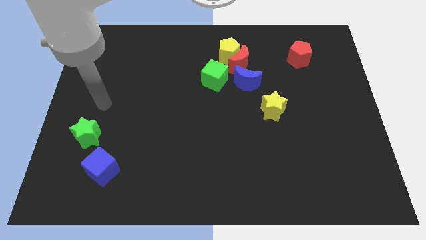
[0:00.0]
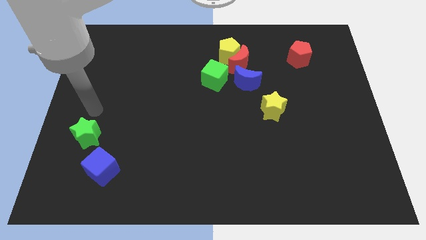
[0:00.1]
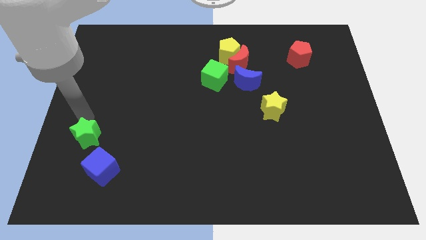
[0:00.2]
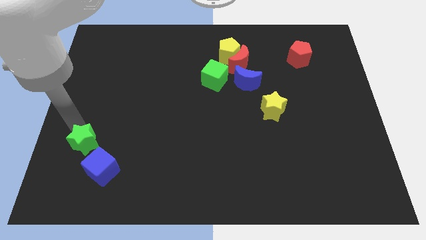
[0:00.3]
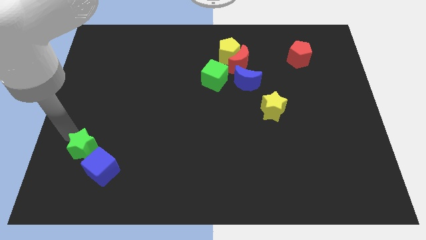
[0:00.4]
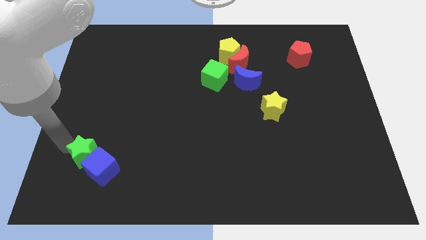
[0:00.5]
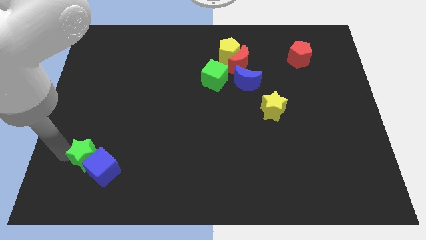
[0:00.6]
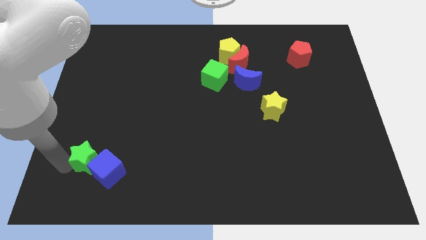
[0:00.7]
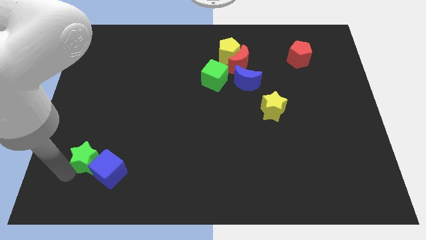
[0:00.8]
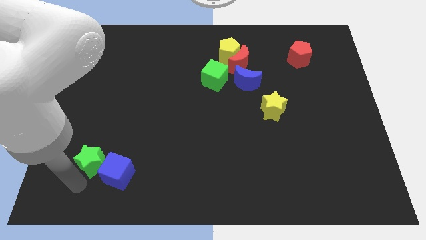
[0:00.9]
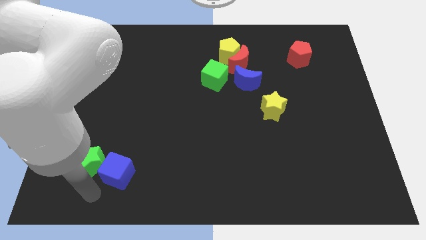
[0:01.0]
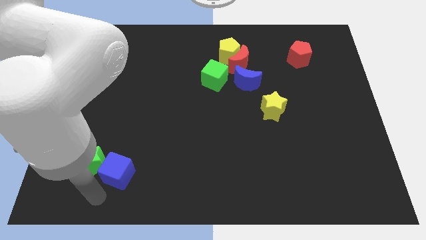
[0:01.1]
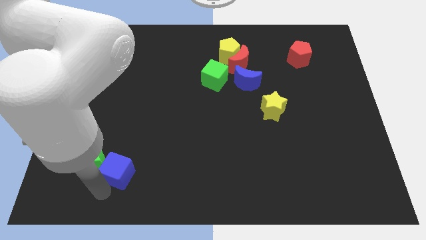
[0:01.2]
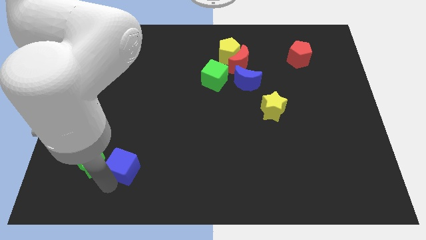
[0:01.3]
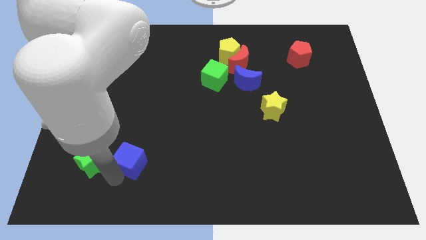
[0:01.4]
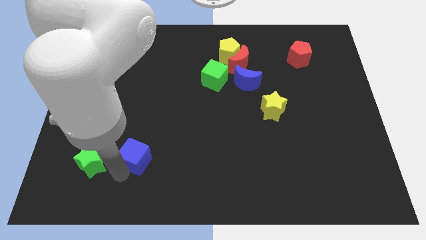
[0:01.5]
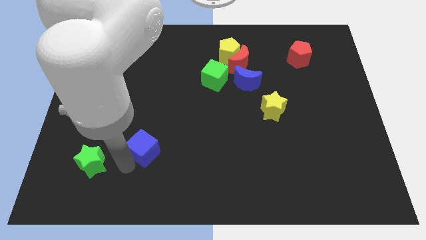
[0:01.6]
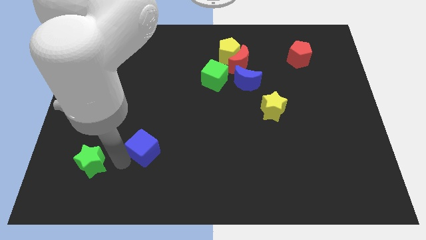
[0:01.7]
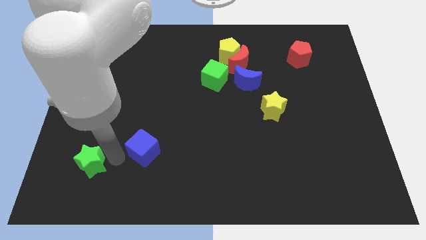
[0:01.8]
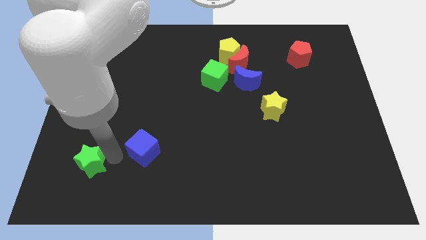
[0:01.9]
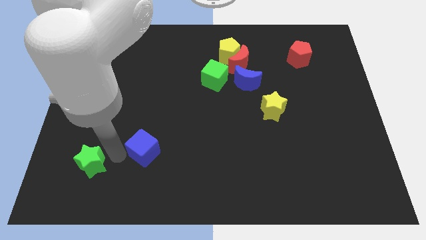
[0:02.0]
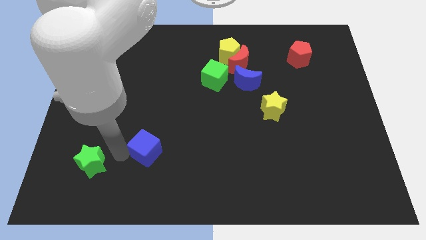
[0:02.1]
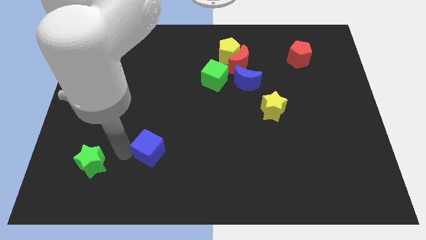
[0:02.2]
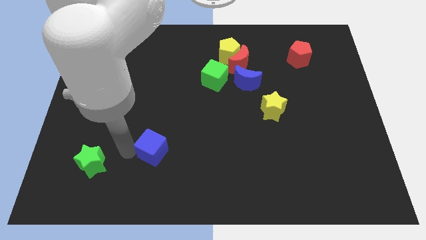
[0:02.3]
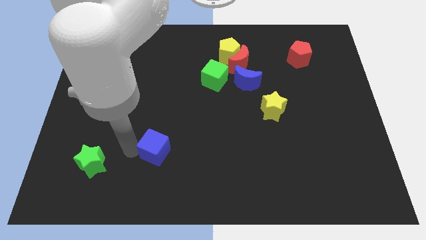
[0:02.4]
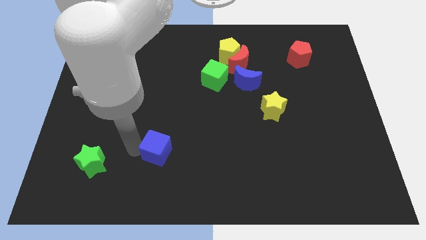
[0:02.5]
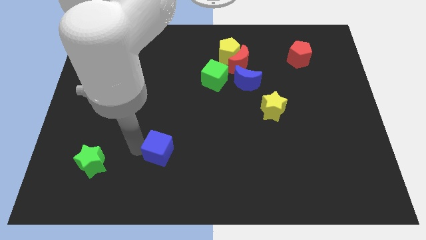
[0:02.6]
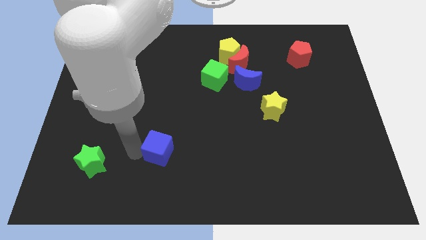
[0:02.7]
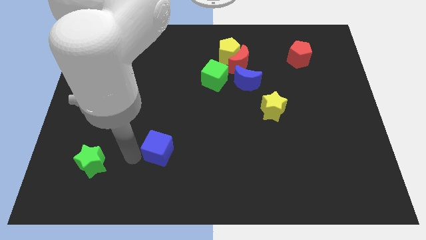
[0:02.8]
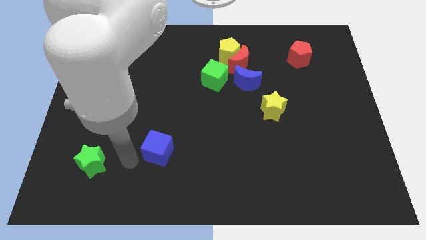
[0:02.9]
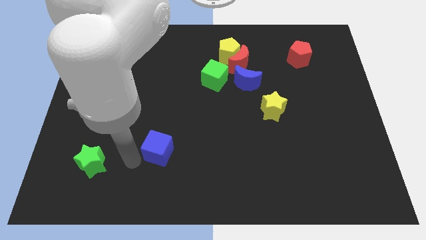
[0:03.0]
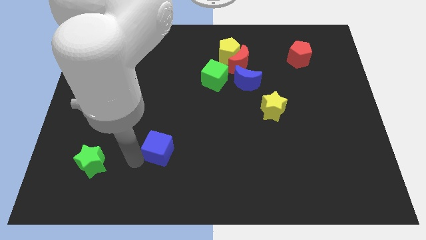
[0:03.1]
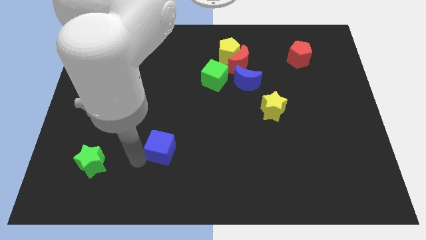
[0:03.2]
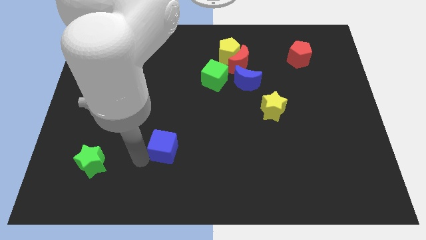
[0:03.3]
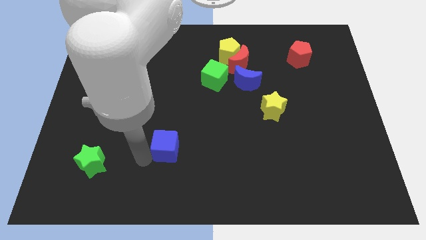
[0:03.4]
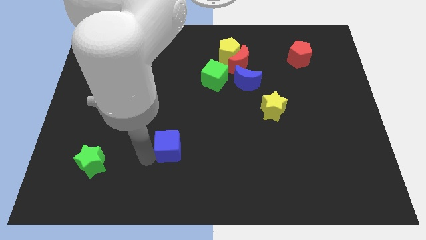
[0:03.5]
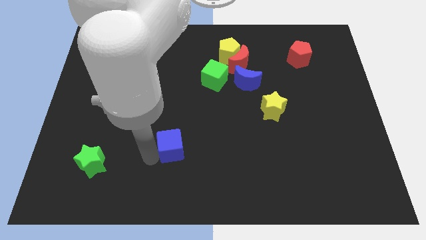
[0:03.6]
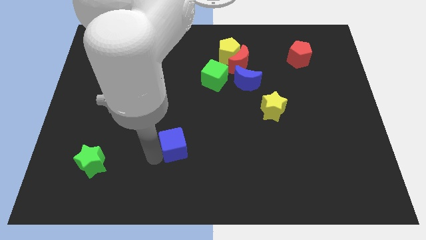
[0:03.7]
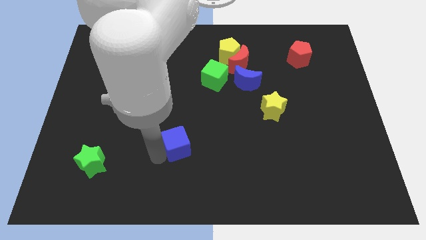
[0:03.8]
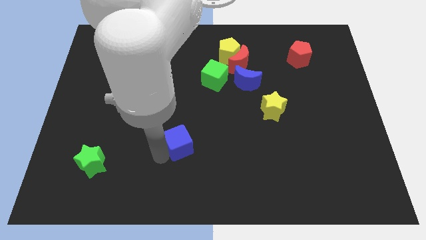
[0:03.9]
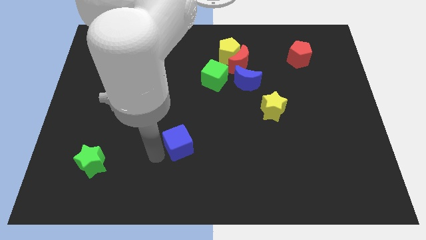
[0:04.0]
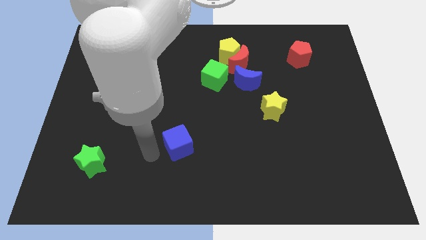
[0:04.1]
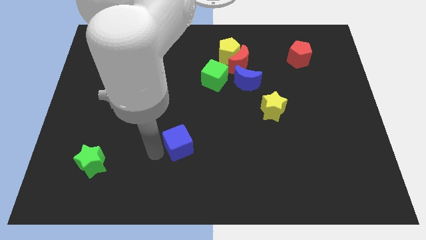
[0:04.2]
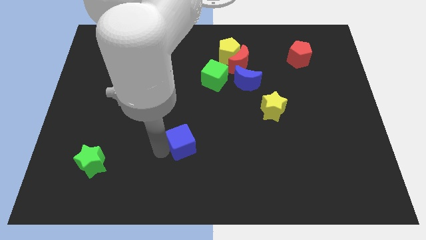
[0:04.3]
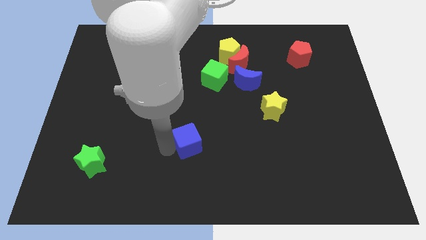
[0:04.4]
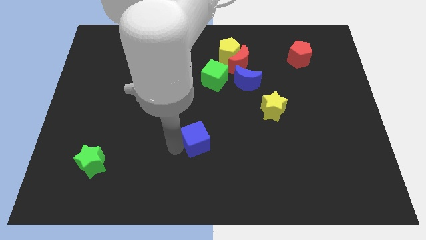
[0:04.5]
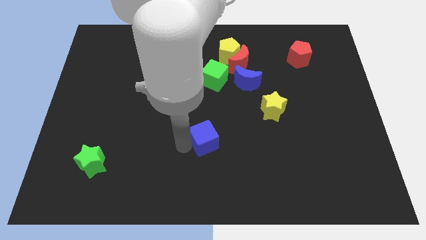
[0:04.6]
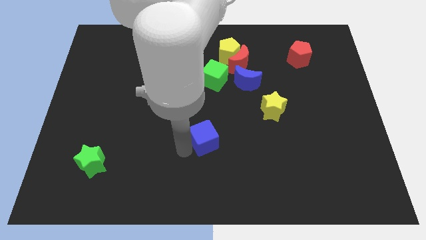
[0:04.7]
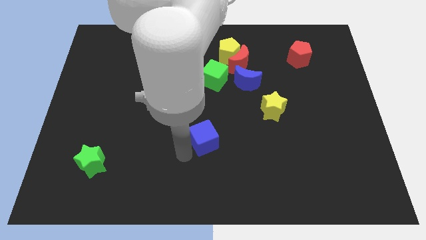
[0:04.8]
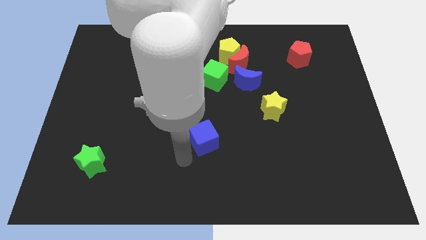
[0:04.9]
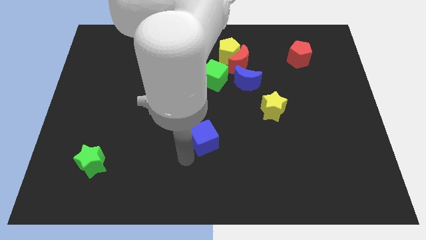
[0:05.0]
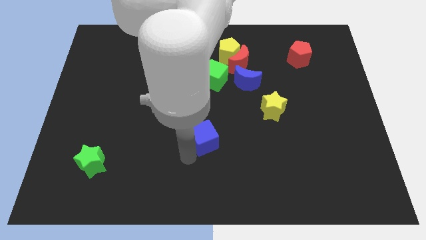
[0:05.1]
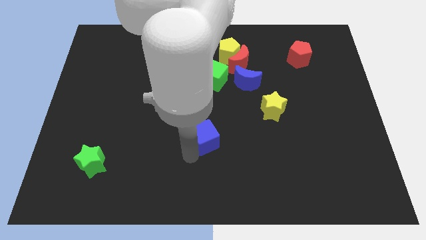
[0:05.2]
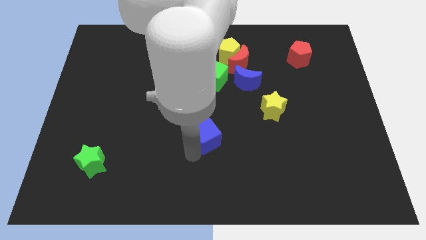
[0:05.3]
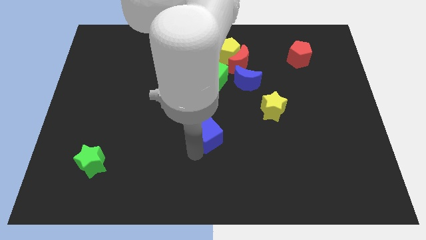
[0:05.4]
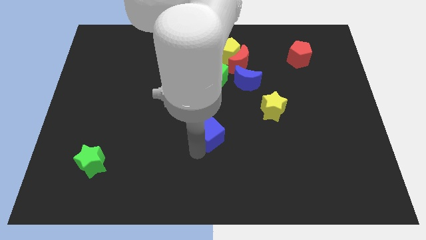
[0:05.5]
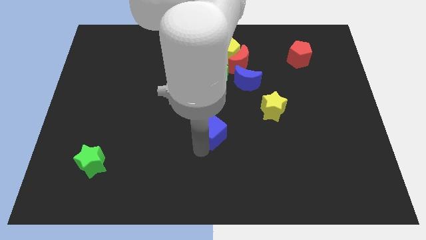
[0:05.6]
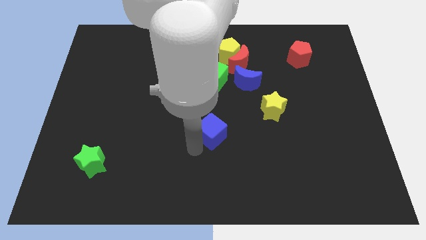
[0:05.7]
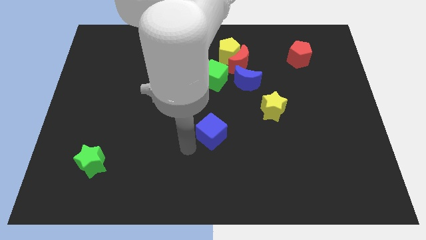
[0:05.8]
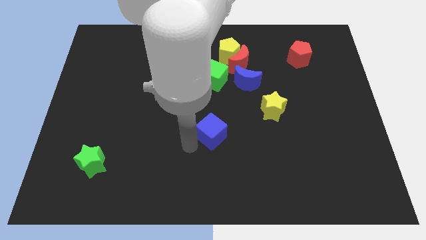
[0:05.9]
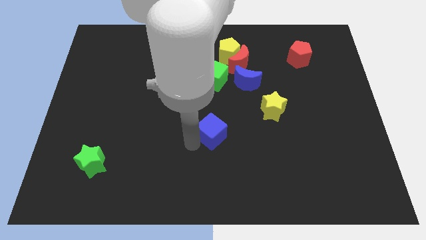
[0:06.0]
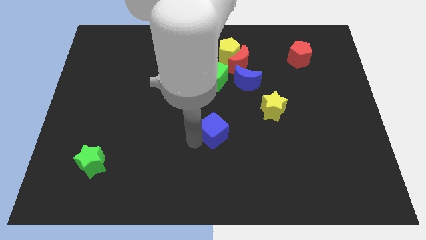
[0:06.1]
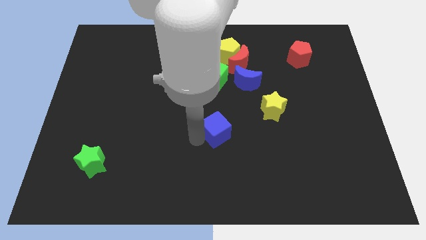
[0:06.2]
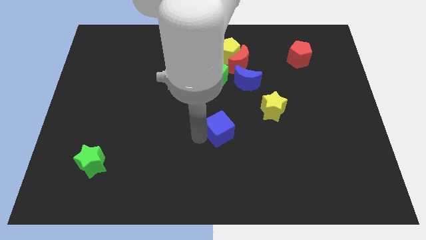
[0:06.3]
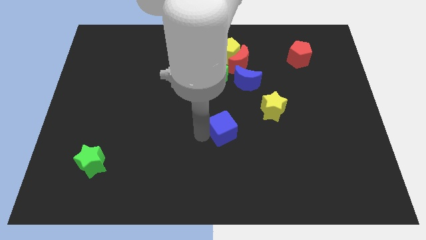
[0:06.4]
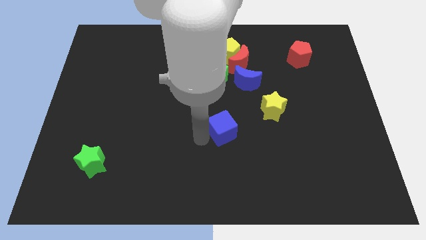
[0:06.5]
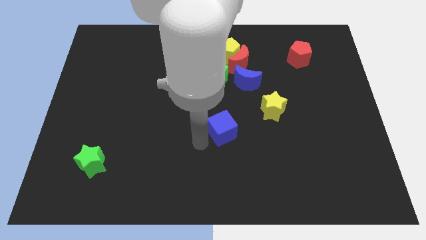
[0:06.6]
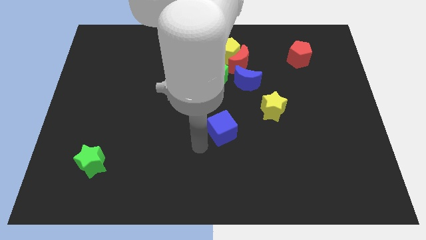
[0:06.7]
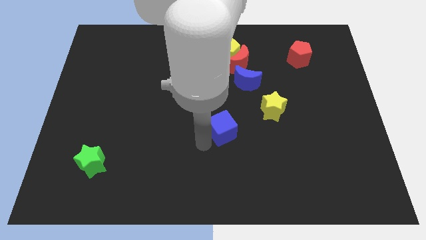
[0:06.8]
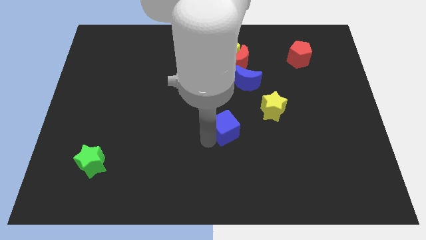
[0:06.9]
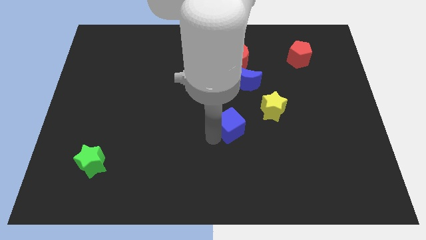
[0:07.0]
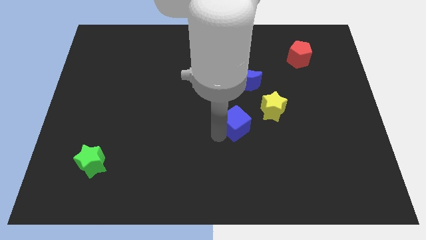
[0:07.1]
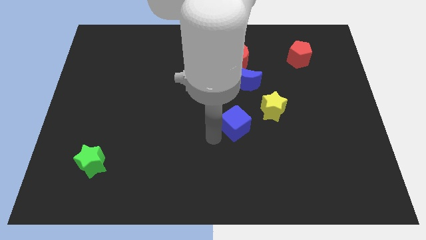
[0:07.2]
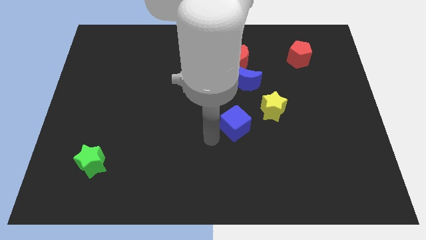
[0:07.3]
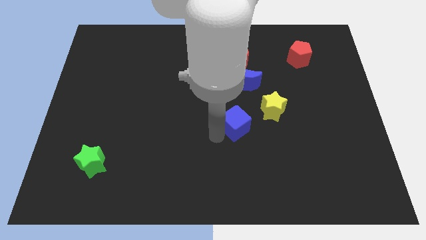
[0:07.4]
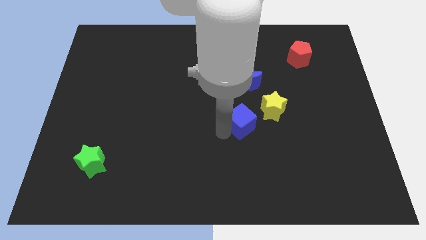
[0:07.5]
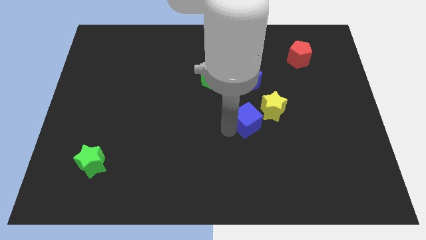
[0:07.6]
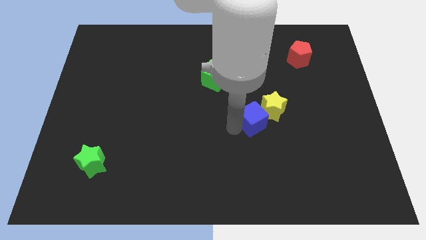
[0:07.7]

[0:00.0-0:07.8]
slide the blue cube next to the yellow star

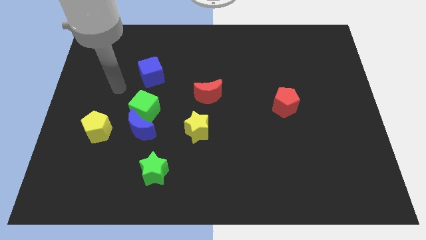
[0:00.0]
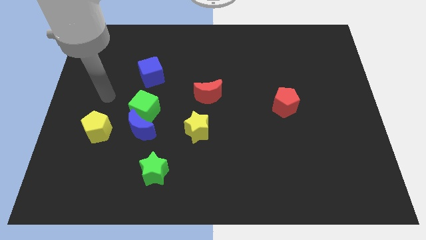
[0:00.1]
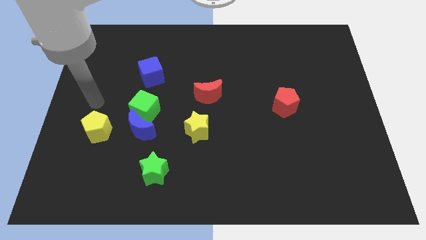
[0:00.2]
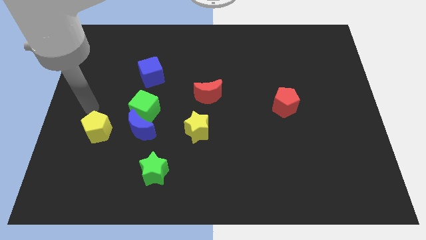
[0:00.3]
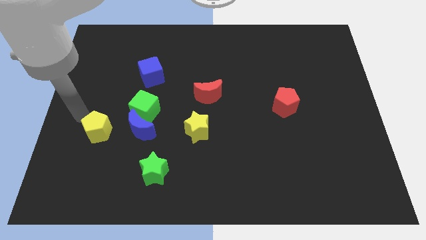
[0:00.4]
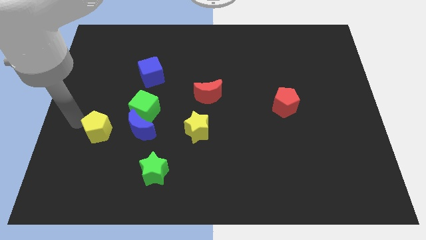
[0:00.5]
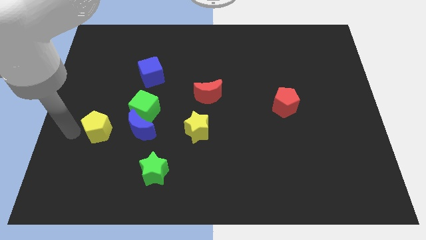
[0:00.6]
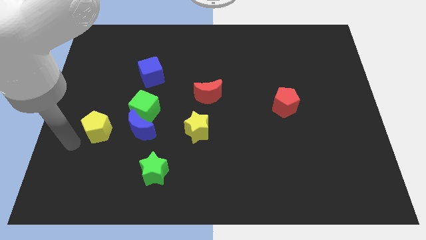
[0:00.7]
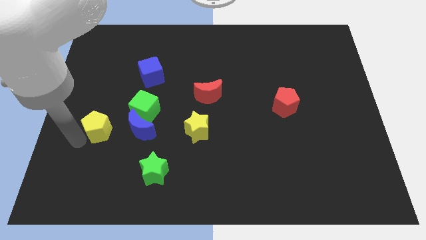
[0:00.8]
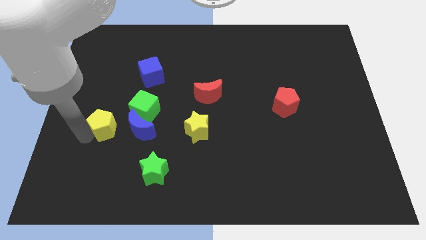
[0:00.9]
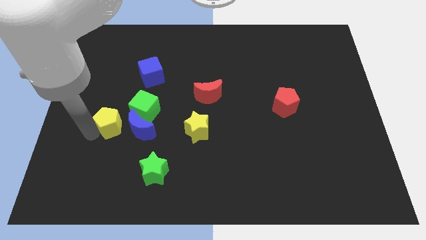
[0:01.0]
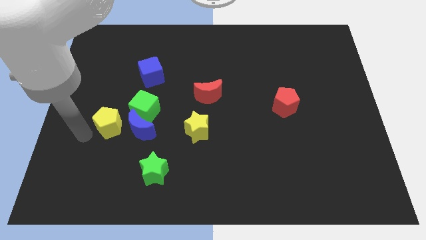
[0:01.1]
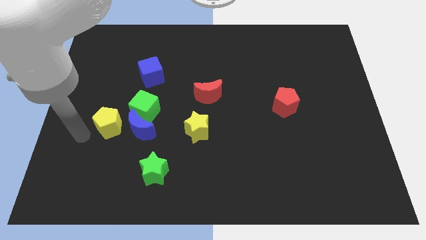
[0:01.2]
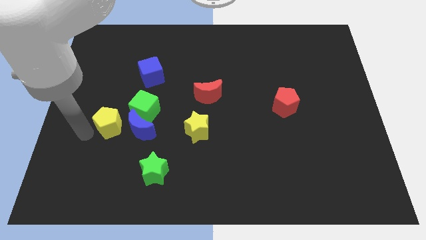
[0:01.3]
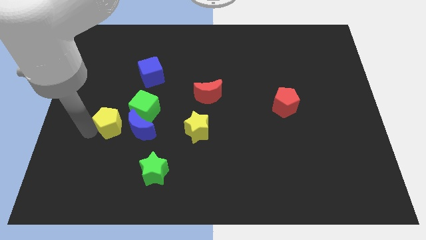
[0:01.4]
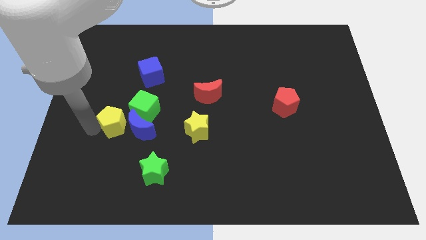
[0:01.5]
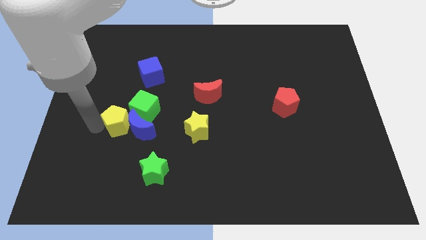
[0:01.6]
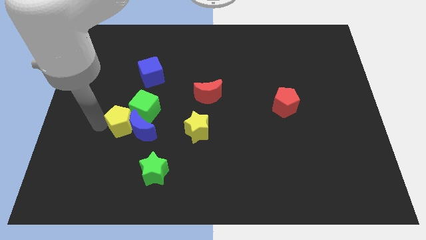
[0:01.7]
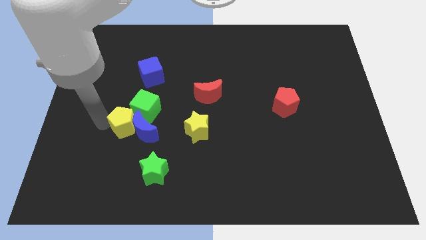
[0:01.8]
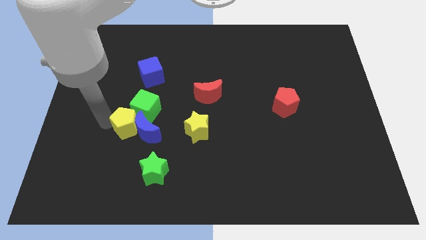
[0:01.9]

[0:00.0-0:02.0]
slide the yellow pentagon towards the green cube
